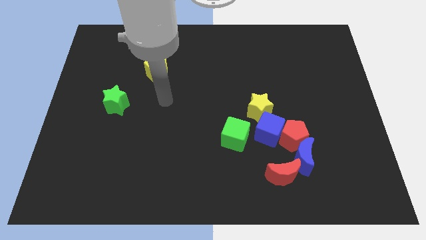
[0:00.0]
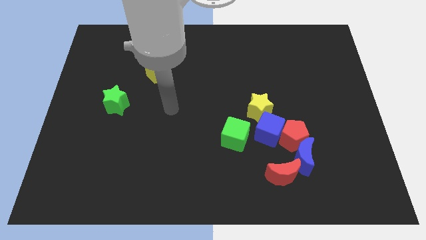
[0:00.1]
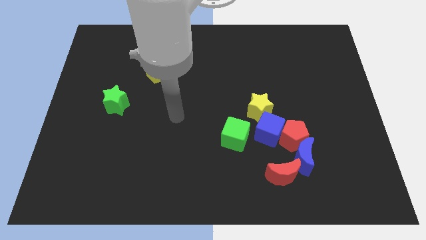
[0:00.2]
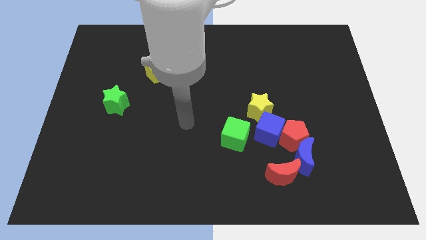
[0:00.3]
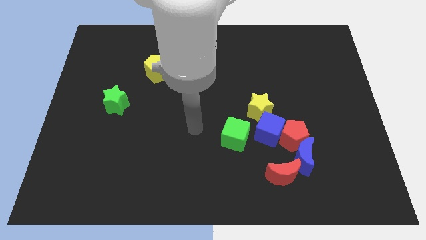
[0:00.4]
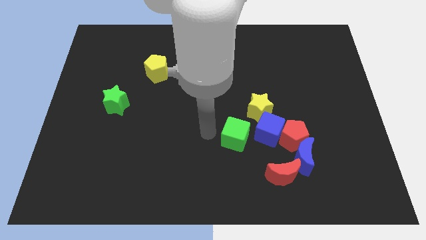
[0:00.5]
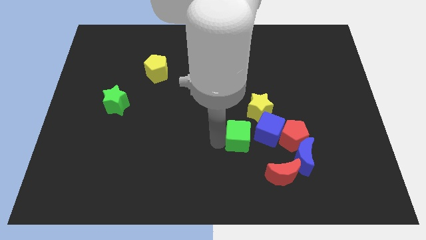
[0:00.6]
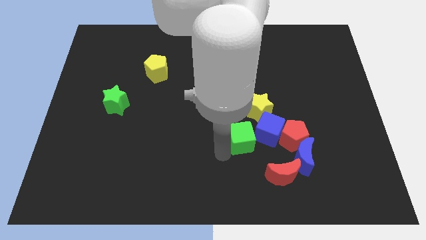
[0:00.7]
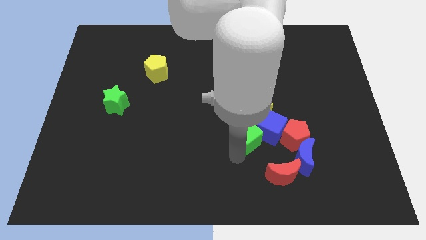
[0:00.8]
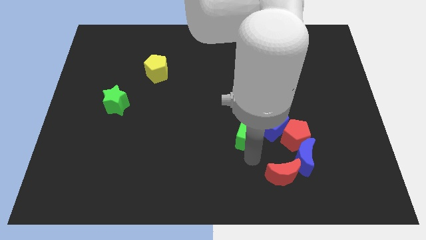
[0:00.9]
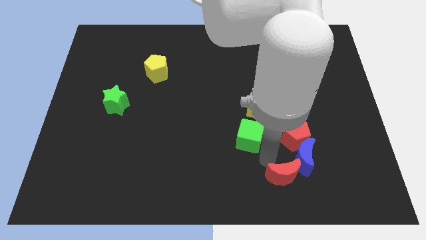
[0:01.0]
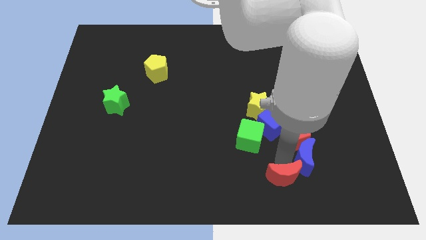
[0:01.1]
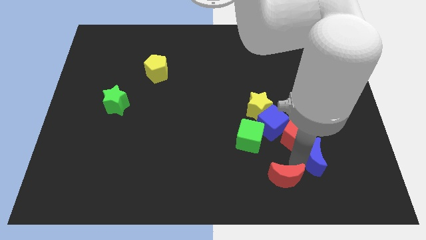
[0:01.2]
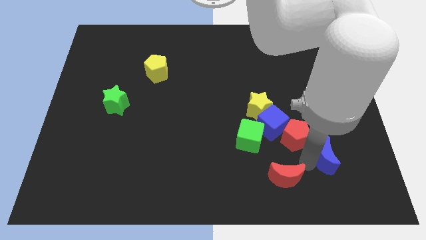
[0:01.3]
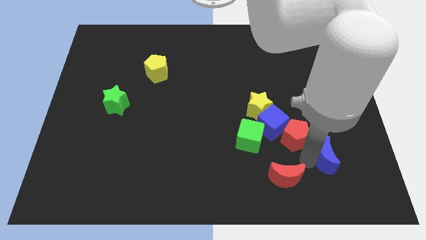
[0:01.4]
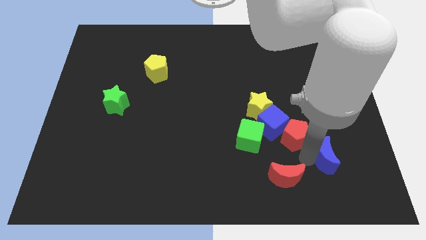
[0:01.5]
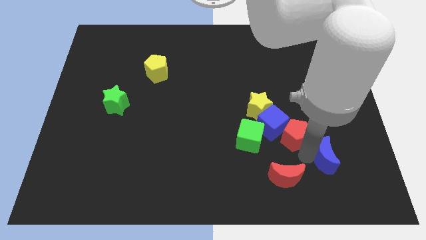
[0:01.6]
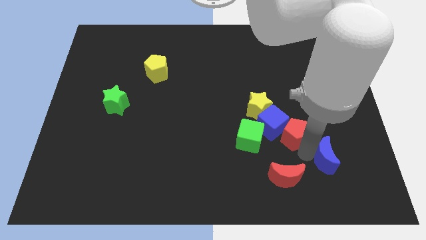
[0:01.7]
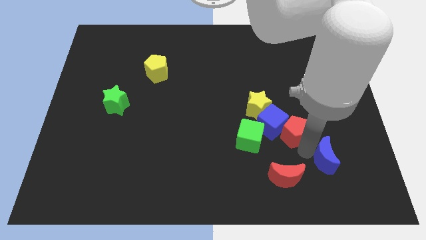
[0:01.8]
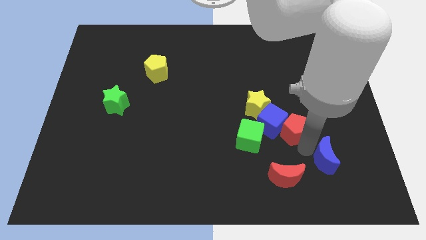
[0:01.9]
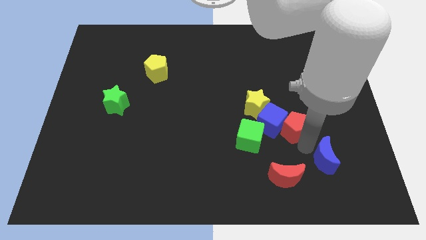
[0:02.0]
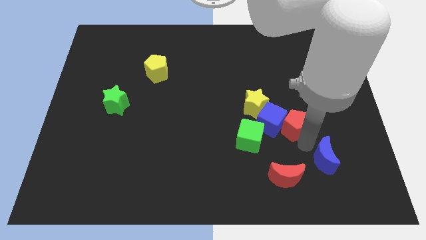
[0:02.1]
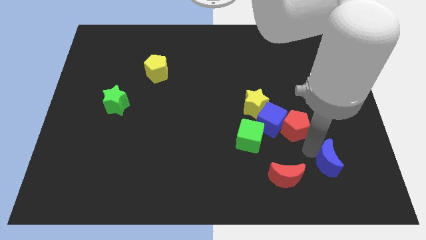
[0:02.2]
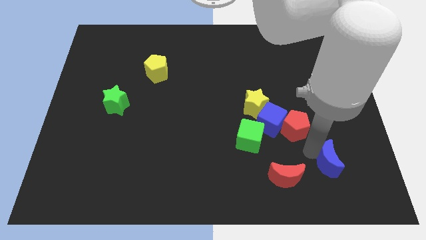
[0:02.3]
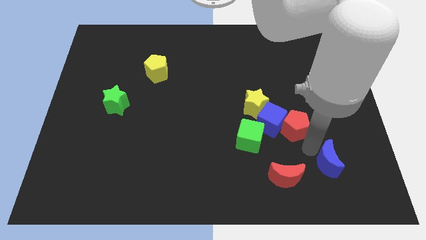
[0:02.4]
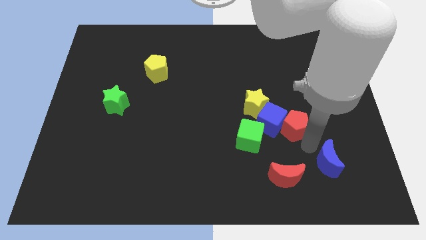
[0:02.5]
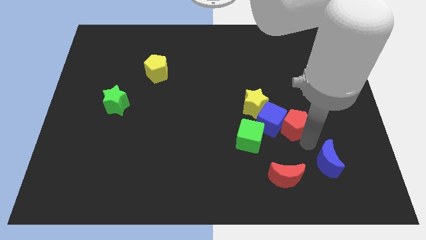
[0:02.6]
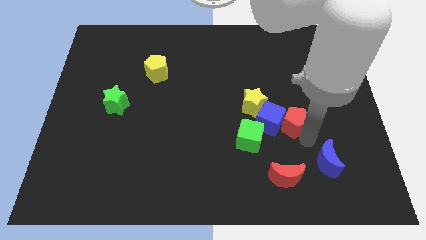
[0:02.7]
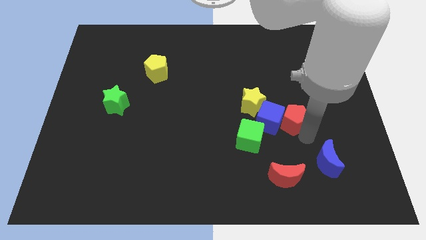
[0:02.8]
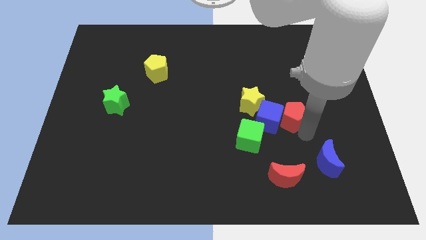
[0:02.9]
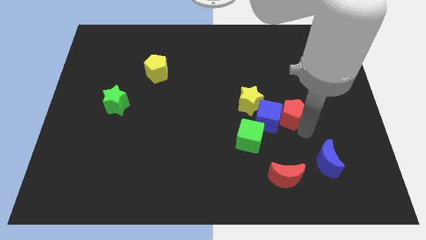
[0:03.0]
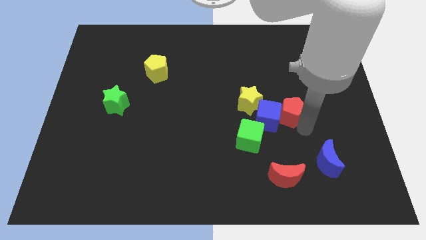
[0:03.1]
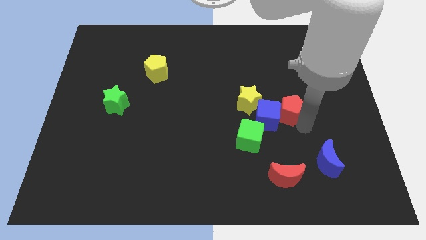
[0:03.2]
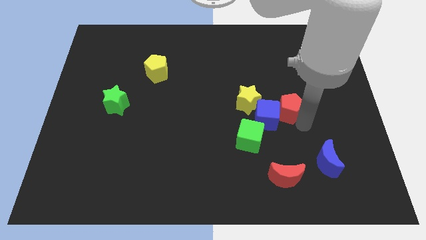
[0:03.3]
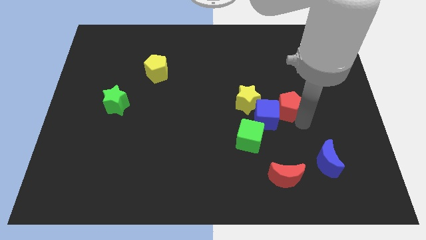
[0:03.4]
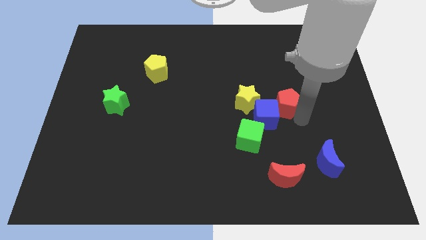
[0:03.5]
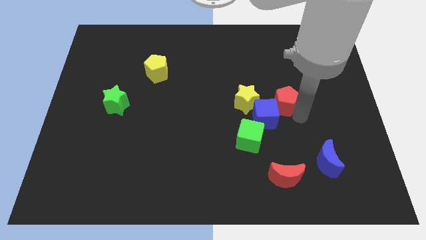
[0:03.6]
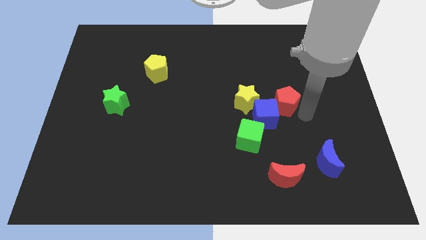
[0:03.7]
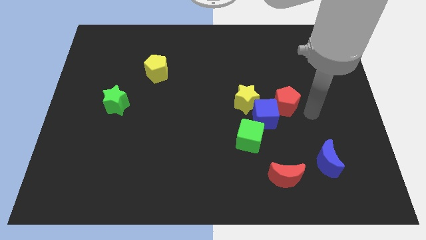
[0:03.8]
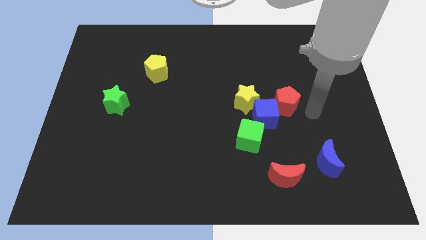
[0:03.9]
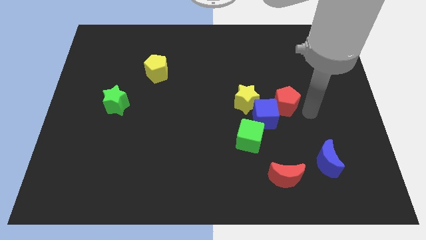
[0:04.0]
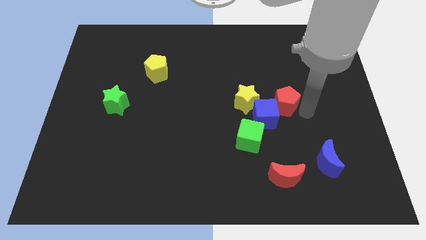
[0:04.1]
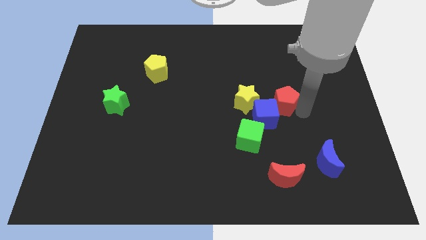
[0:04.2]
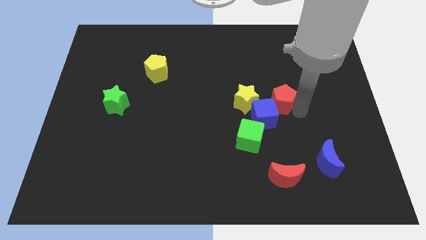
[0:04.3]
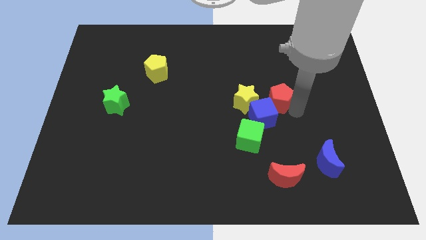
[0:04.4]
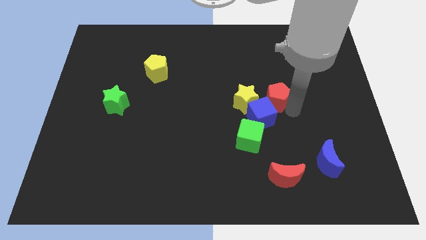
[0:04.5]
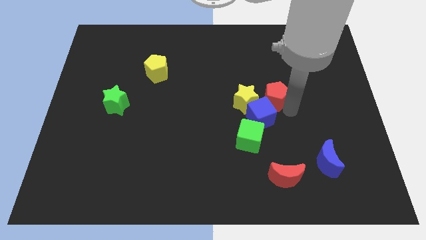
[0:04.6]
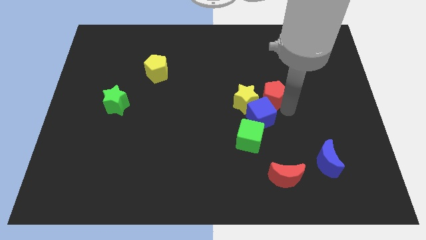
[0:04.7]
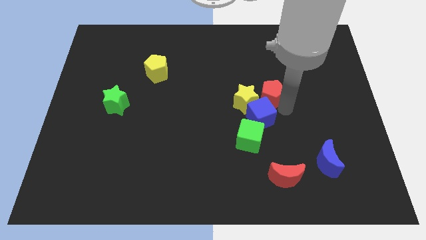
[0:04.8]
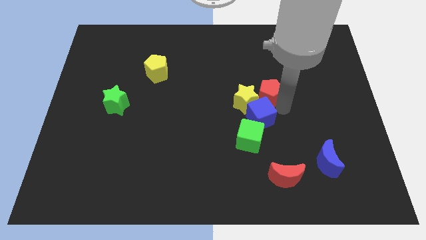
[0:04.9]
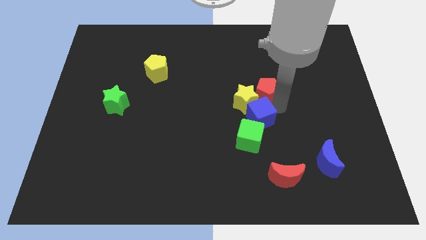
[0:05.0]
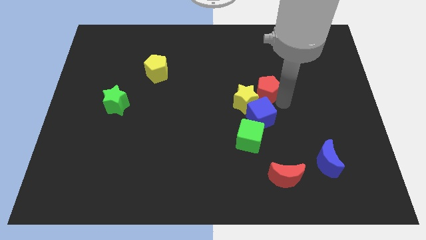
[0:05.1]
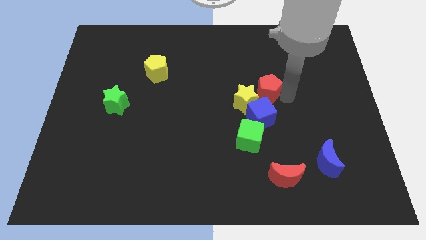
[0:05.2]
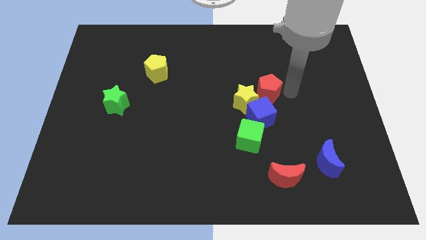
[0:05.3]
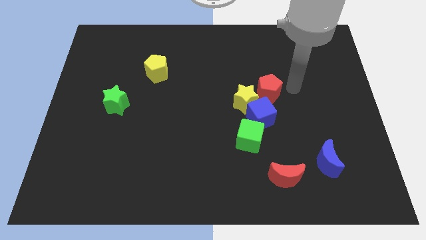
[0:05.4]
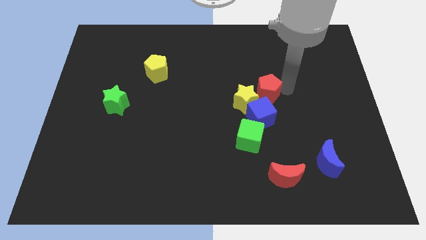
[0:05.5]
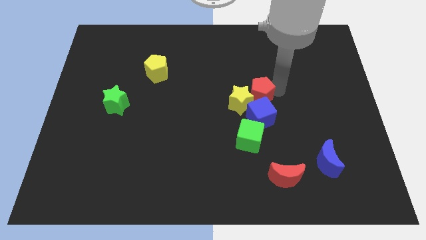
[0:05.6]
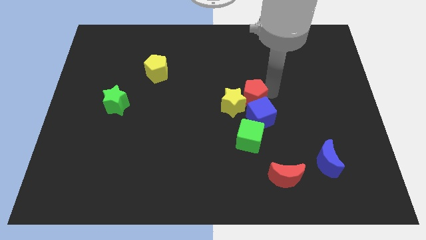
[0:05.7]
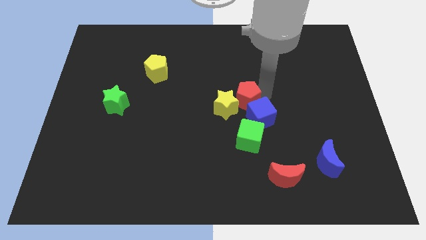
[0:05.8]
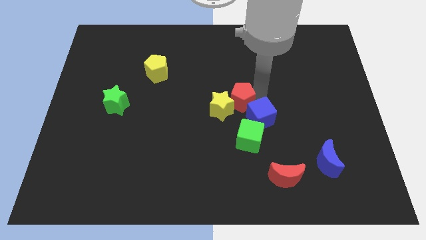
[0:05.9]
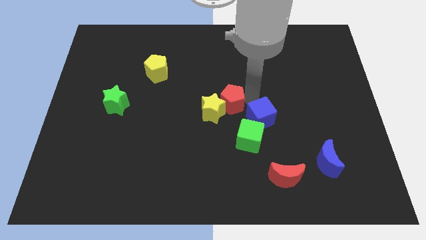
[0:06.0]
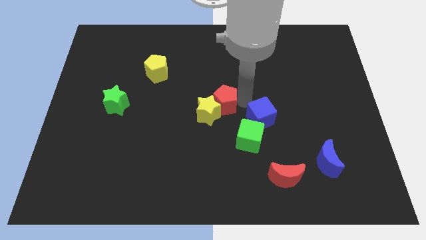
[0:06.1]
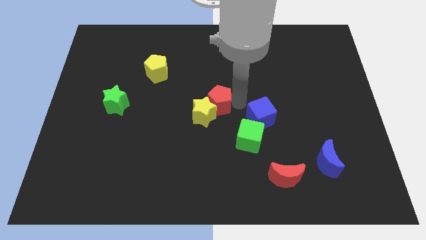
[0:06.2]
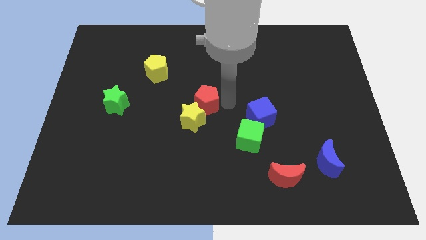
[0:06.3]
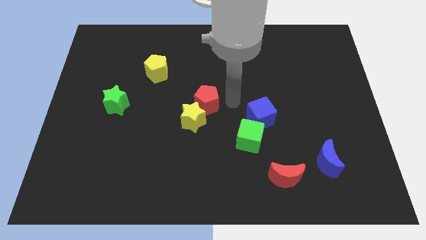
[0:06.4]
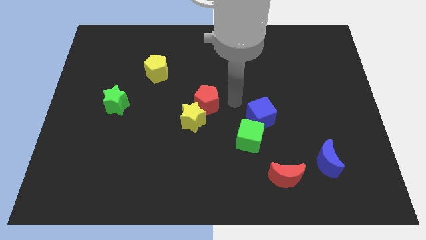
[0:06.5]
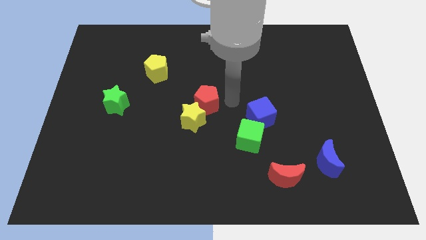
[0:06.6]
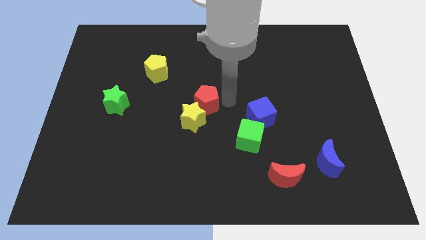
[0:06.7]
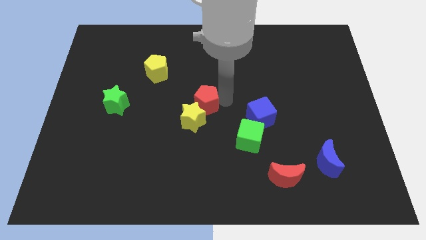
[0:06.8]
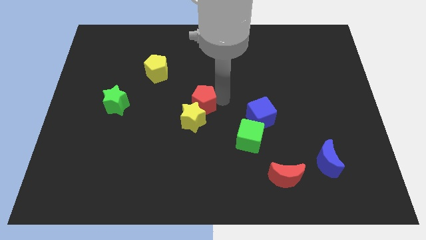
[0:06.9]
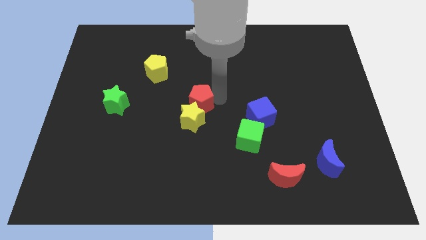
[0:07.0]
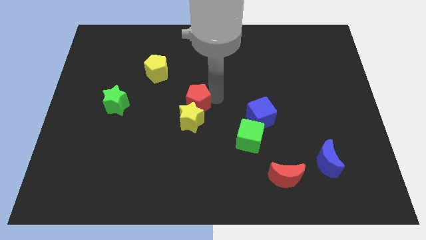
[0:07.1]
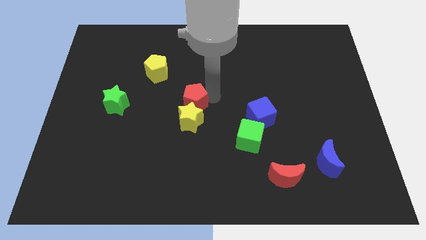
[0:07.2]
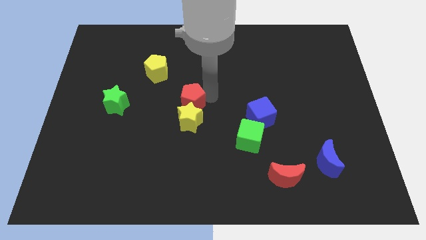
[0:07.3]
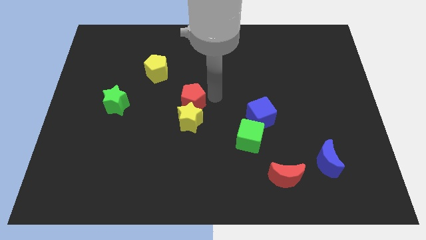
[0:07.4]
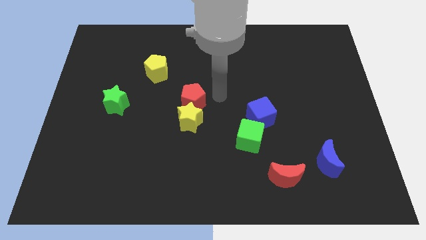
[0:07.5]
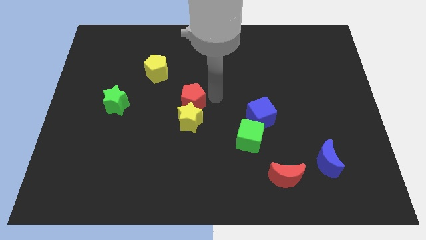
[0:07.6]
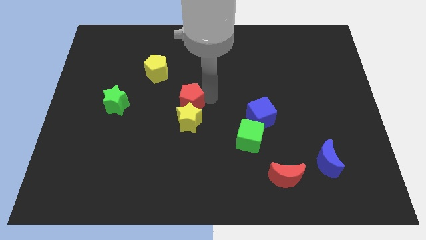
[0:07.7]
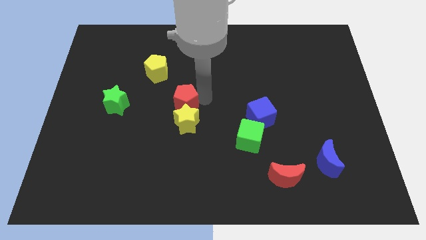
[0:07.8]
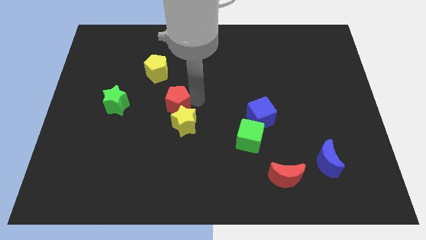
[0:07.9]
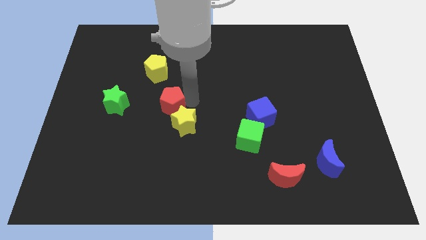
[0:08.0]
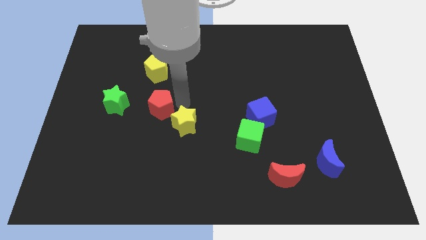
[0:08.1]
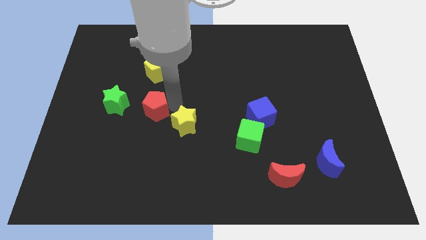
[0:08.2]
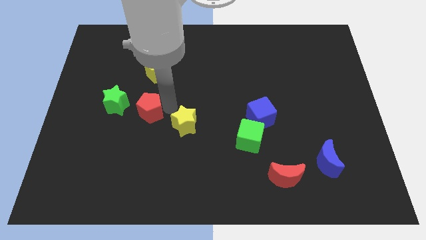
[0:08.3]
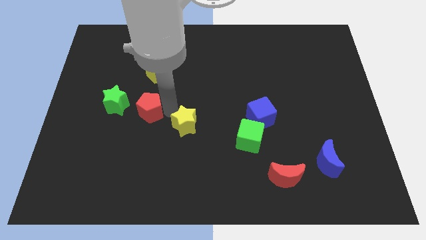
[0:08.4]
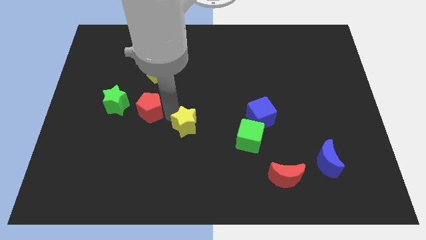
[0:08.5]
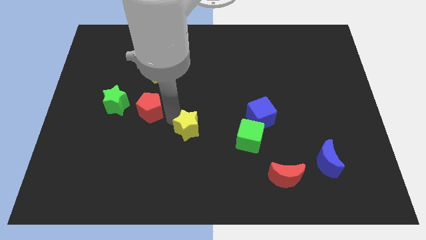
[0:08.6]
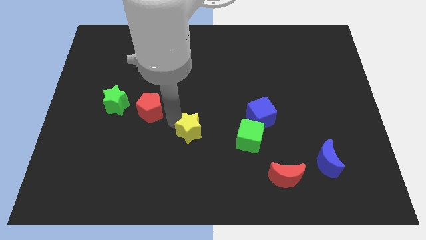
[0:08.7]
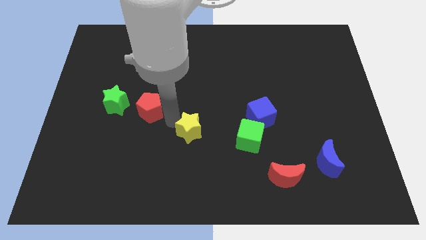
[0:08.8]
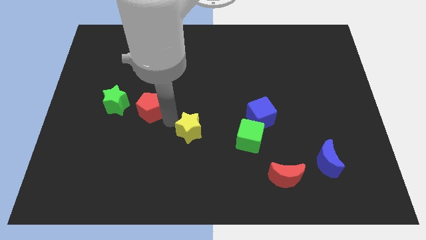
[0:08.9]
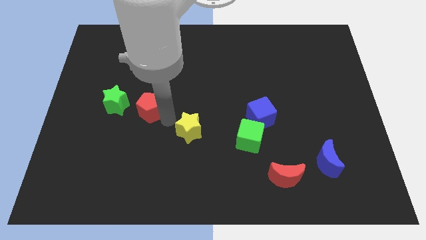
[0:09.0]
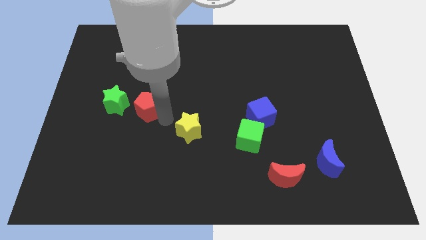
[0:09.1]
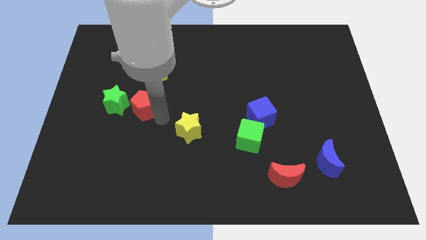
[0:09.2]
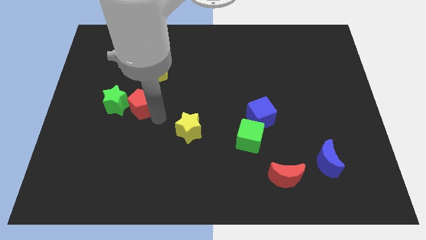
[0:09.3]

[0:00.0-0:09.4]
put the red pentagon next to the green star
